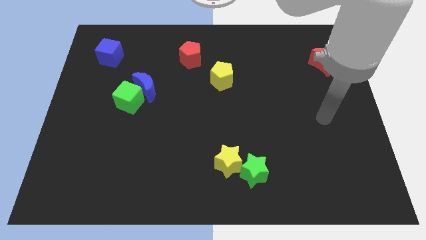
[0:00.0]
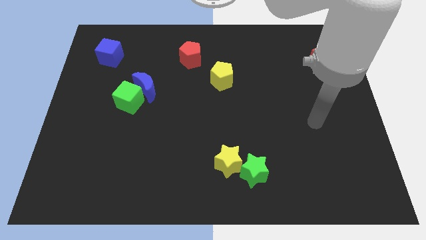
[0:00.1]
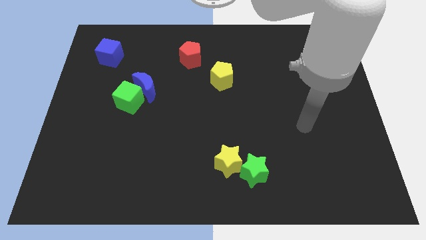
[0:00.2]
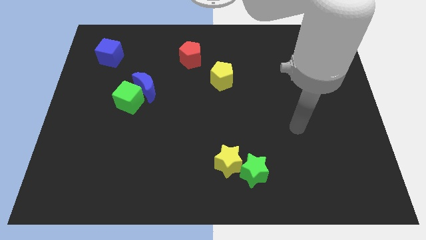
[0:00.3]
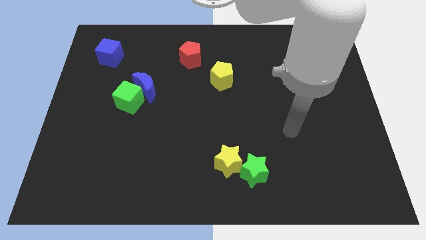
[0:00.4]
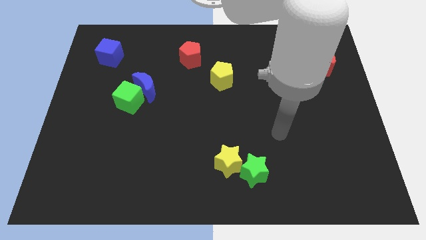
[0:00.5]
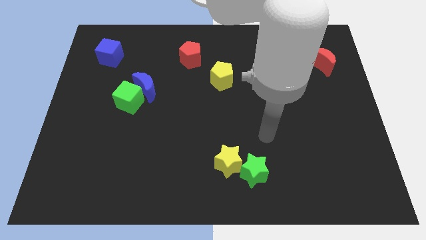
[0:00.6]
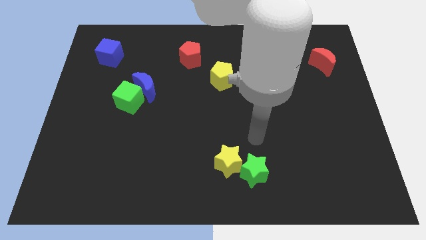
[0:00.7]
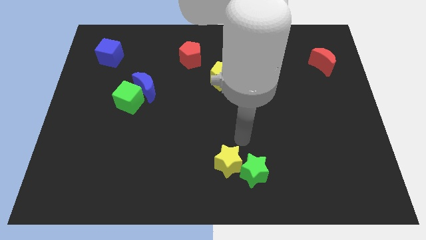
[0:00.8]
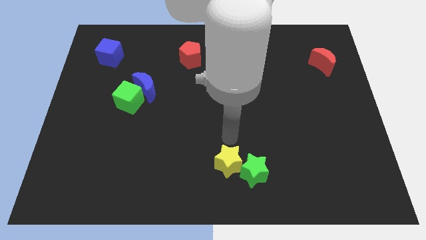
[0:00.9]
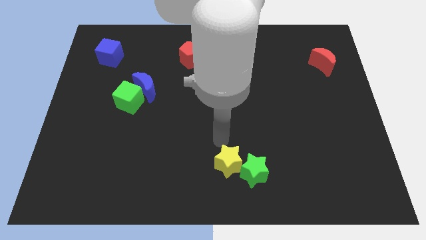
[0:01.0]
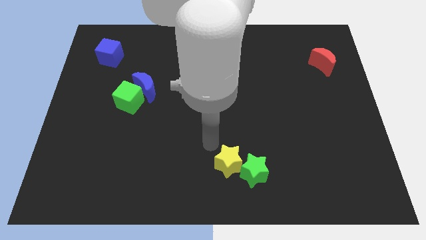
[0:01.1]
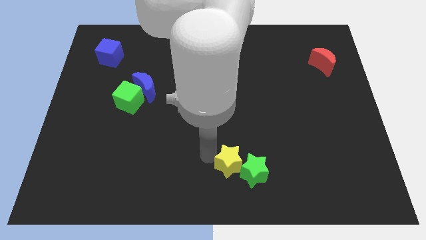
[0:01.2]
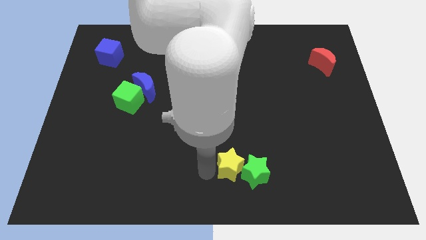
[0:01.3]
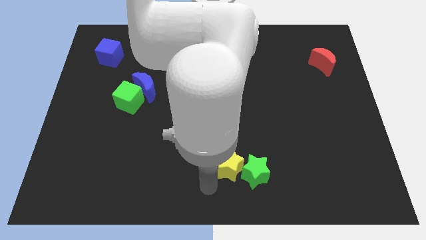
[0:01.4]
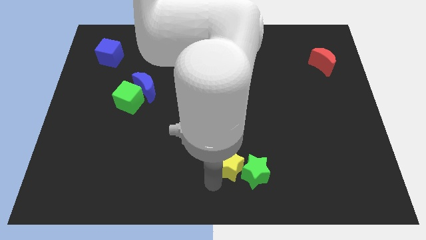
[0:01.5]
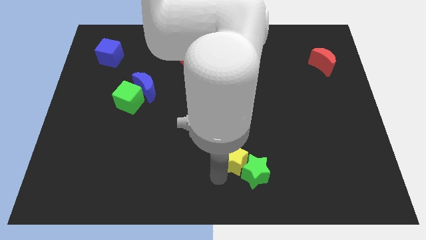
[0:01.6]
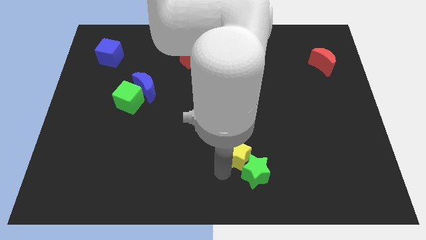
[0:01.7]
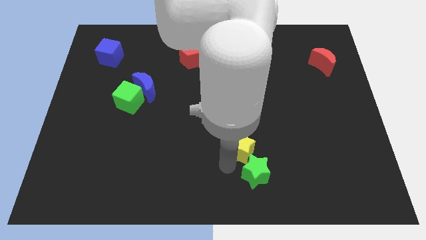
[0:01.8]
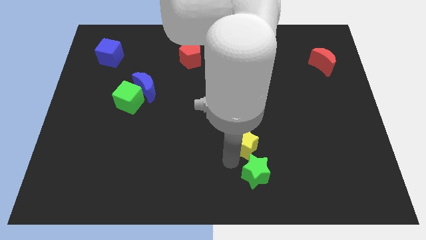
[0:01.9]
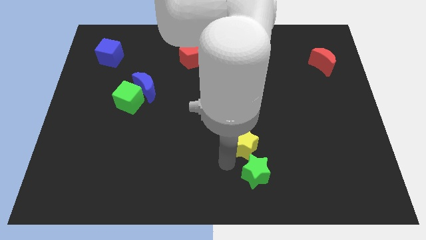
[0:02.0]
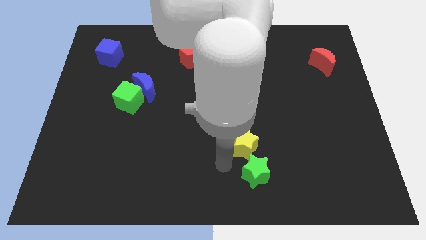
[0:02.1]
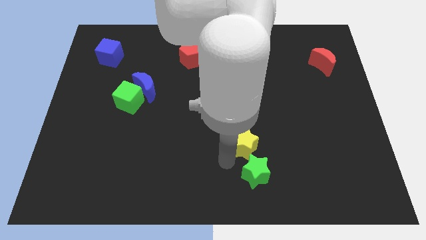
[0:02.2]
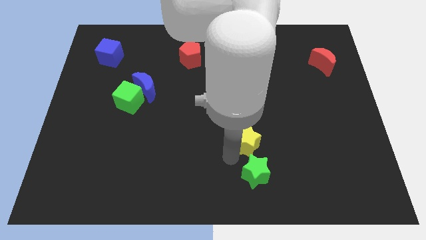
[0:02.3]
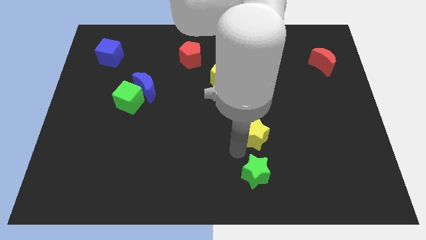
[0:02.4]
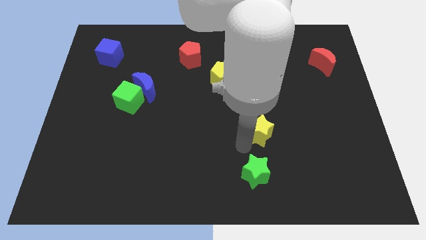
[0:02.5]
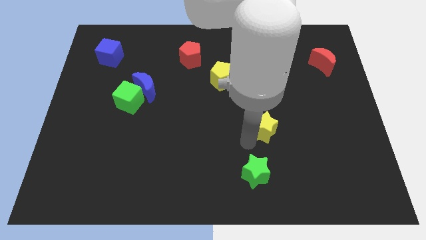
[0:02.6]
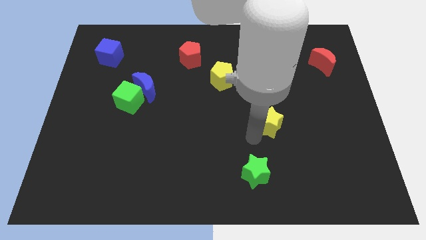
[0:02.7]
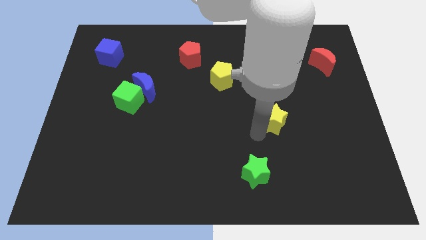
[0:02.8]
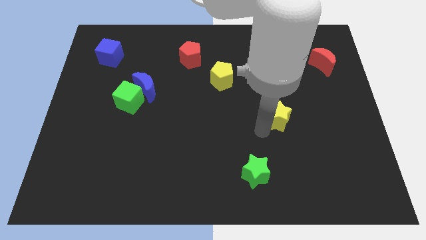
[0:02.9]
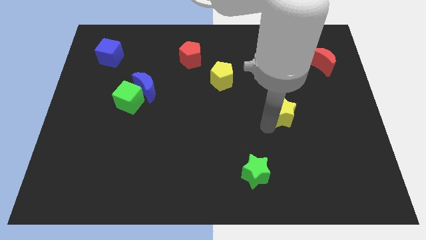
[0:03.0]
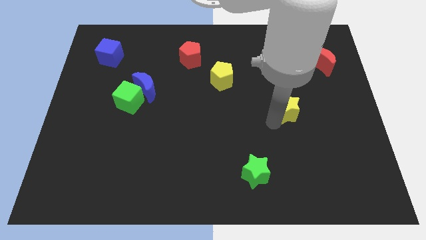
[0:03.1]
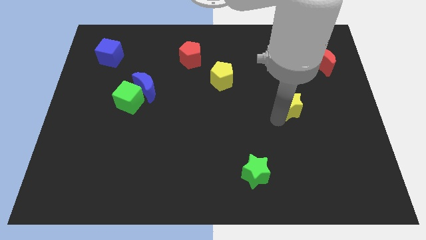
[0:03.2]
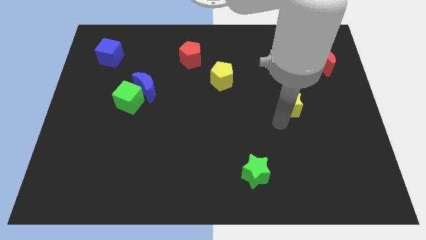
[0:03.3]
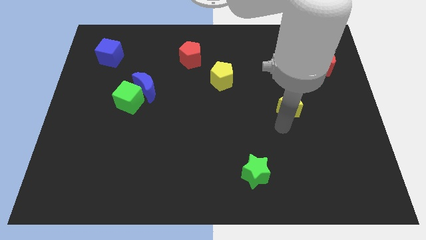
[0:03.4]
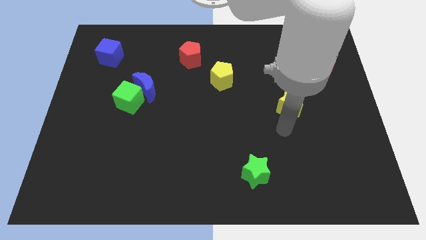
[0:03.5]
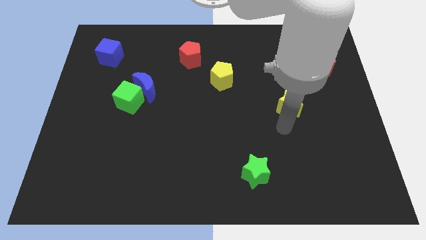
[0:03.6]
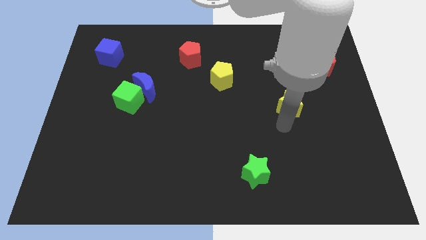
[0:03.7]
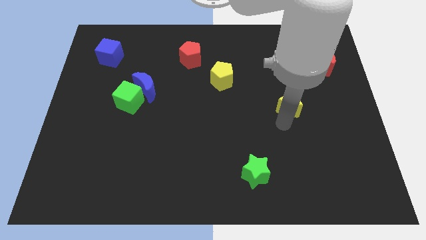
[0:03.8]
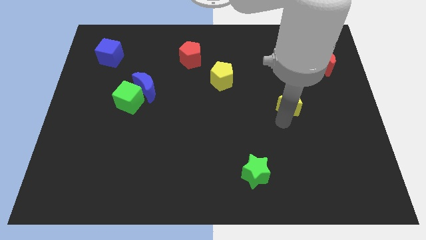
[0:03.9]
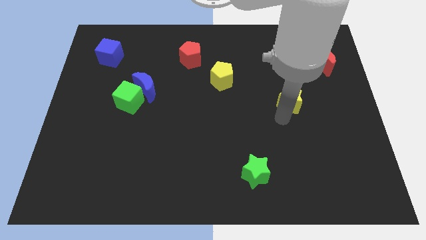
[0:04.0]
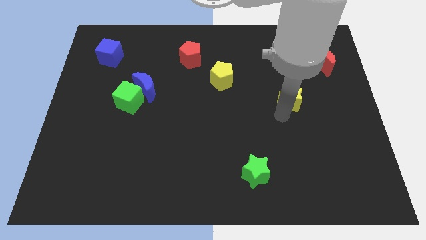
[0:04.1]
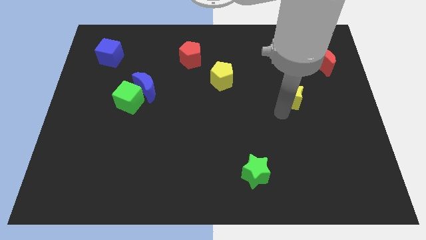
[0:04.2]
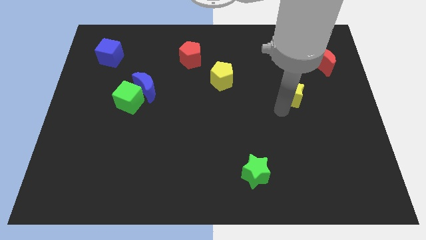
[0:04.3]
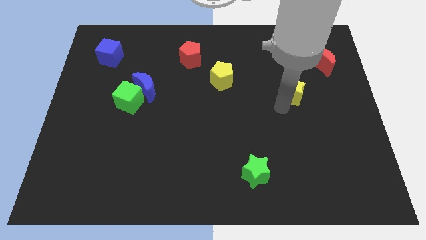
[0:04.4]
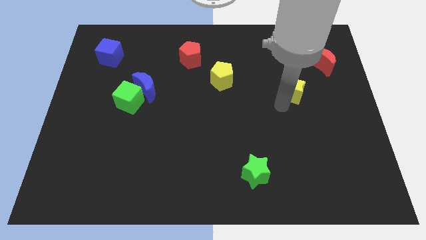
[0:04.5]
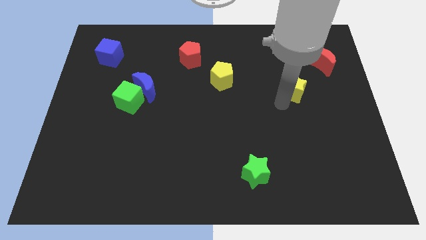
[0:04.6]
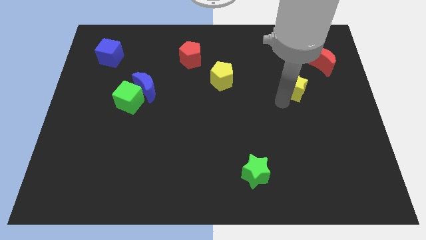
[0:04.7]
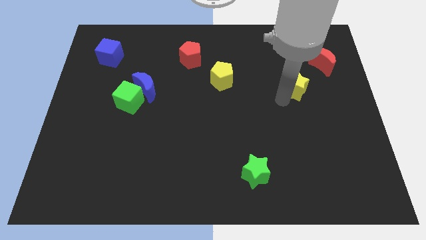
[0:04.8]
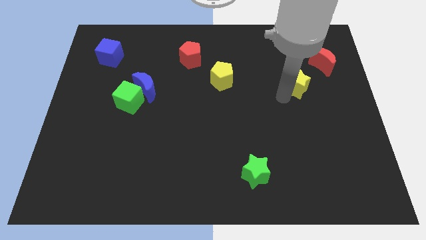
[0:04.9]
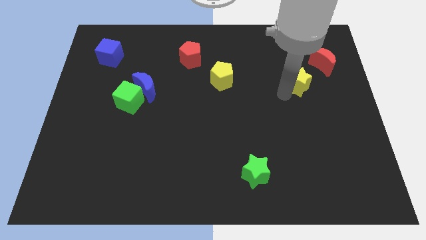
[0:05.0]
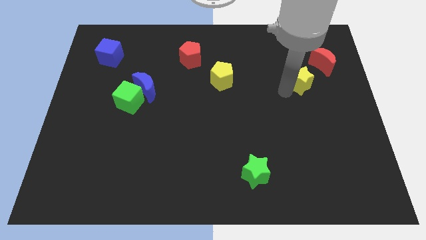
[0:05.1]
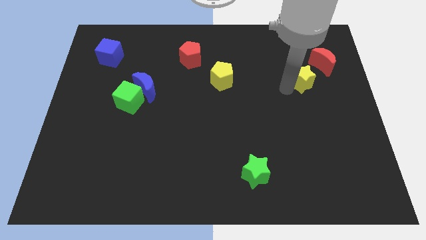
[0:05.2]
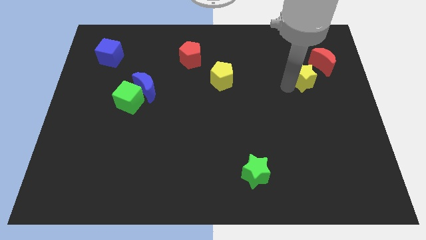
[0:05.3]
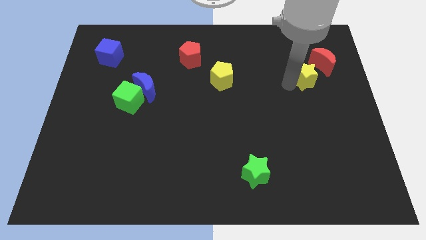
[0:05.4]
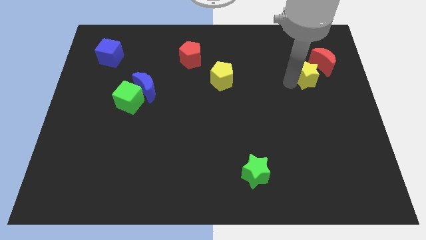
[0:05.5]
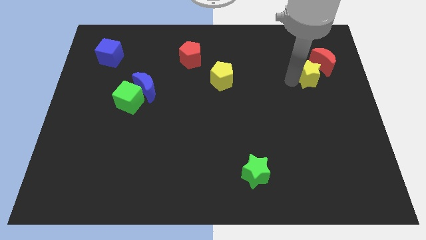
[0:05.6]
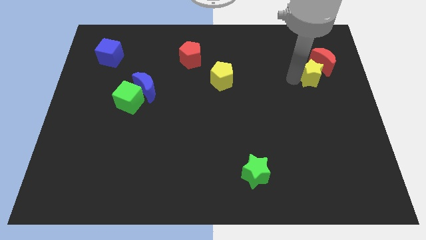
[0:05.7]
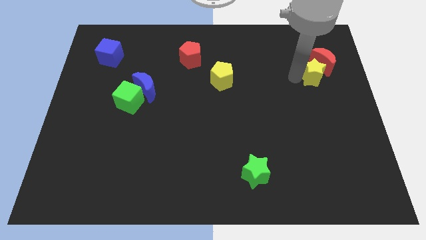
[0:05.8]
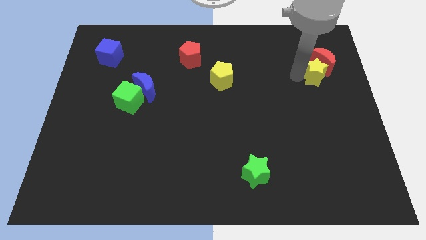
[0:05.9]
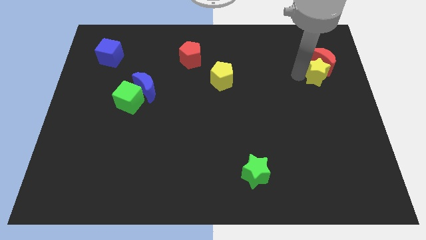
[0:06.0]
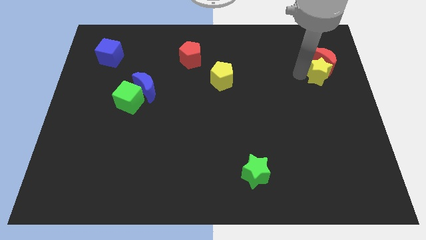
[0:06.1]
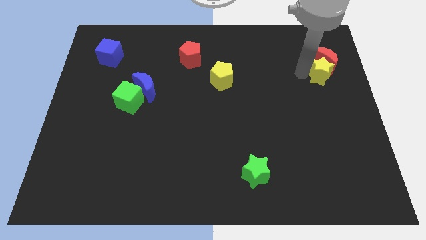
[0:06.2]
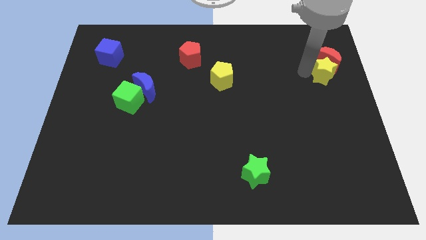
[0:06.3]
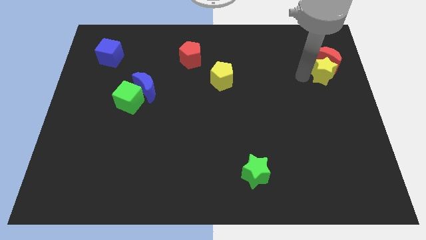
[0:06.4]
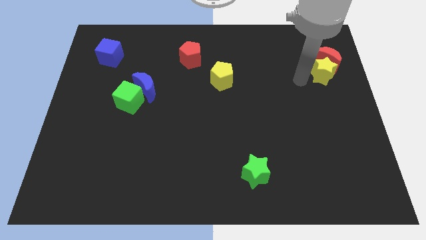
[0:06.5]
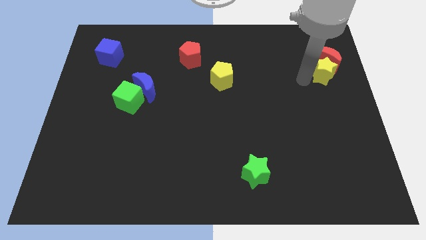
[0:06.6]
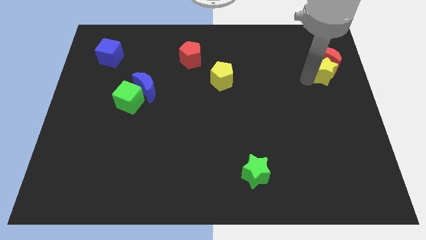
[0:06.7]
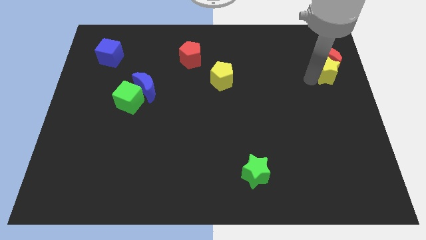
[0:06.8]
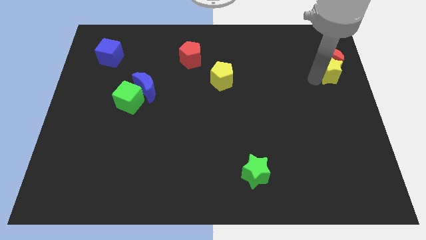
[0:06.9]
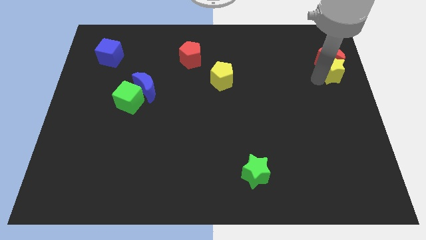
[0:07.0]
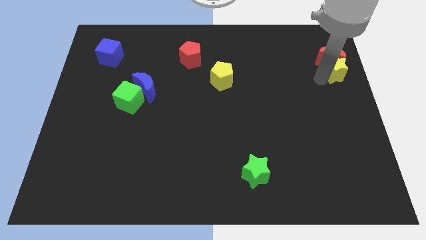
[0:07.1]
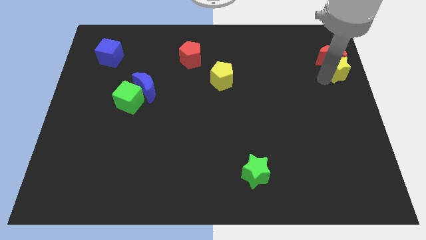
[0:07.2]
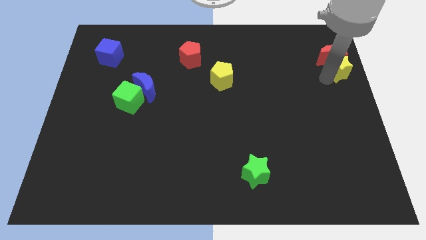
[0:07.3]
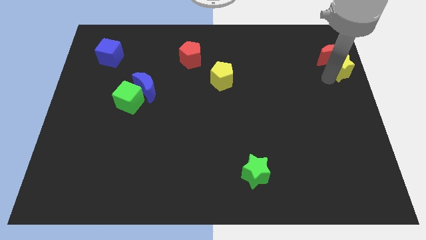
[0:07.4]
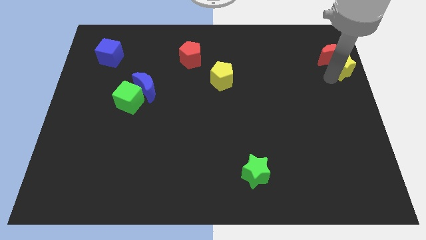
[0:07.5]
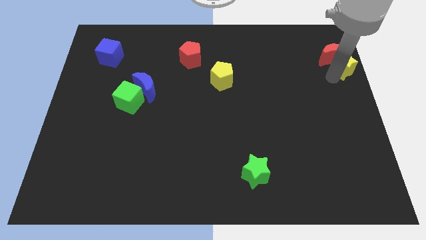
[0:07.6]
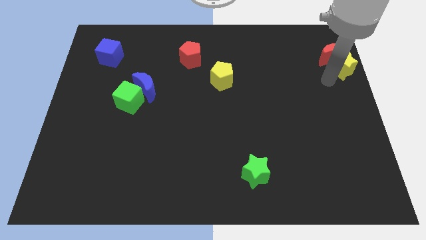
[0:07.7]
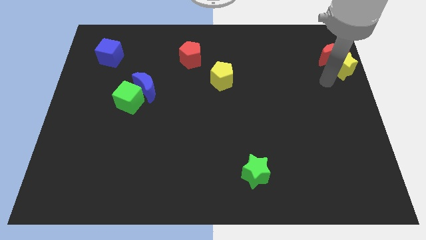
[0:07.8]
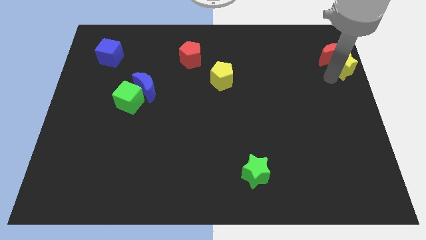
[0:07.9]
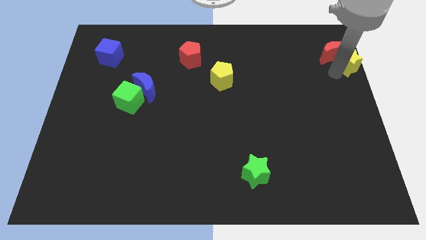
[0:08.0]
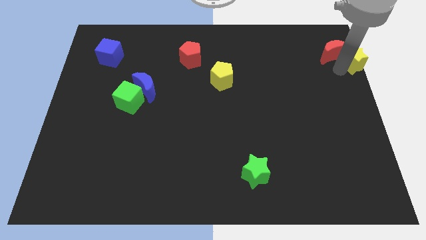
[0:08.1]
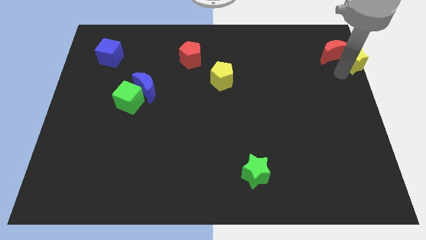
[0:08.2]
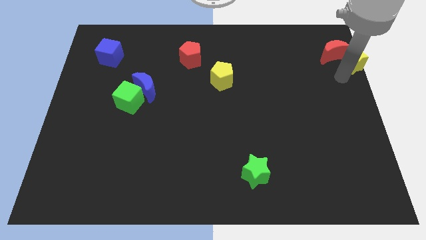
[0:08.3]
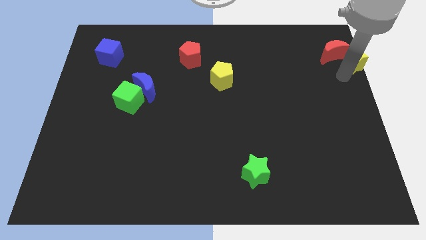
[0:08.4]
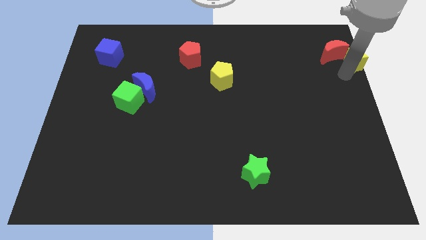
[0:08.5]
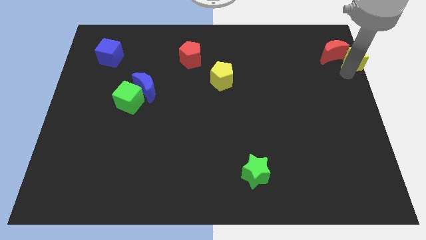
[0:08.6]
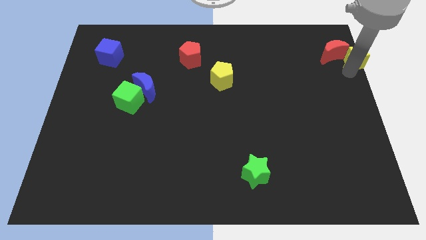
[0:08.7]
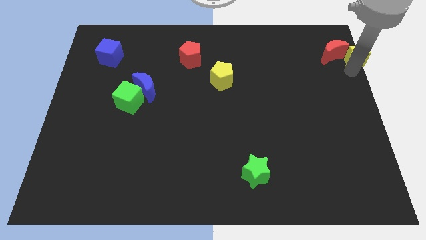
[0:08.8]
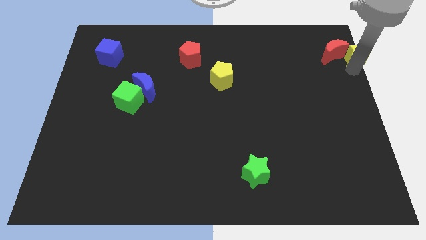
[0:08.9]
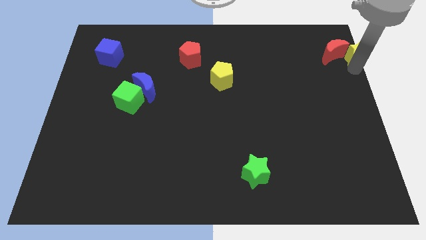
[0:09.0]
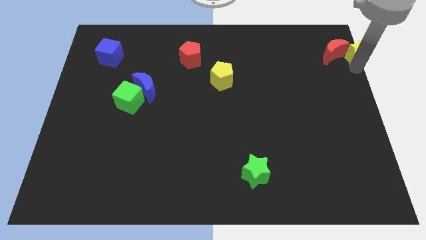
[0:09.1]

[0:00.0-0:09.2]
move the yellow star to the top right corner
